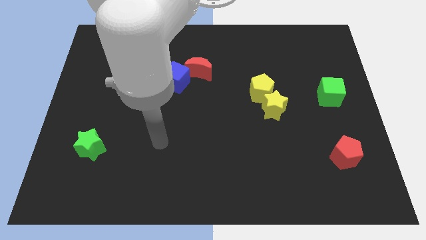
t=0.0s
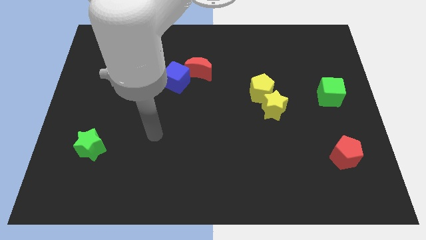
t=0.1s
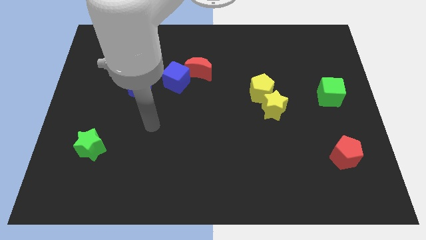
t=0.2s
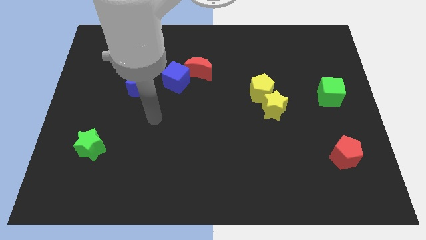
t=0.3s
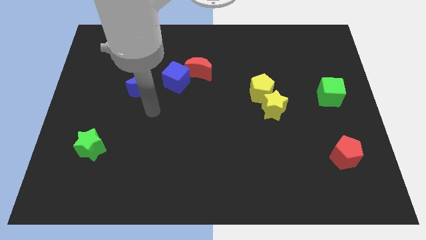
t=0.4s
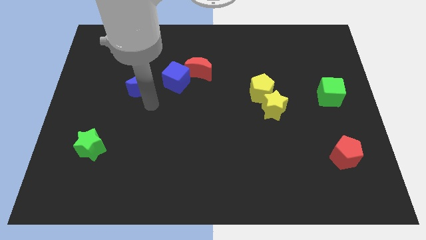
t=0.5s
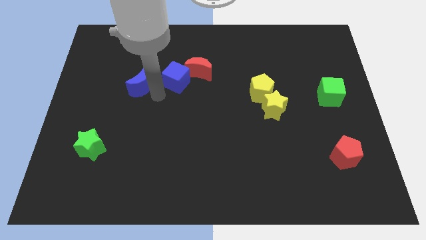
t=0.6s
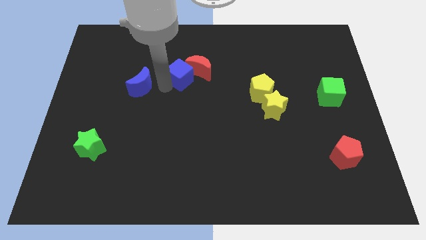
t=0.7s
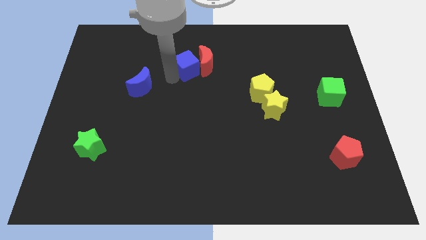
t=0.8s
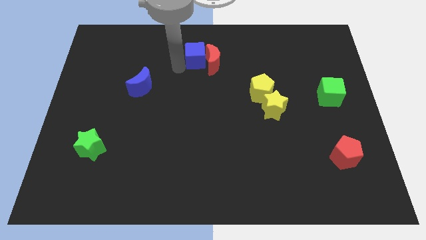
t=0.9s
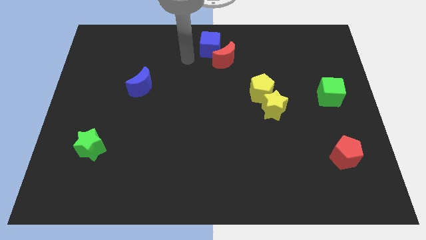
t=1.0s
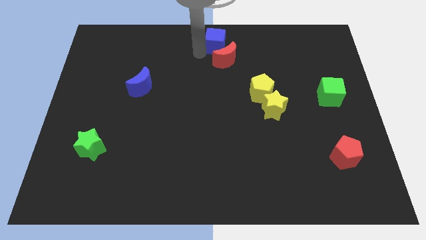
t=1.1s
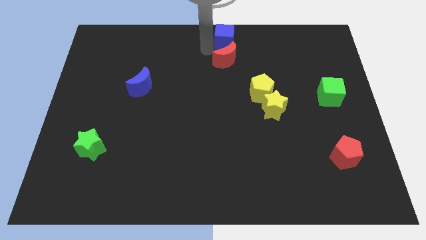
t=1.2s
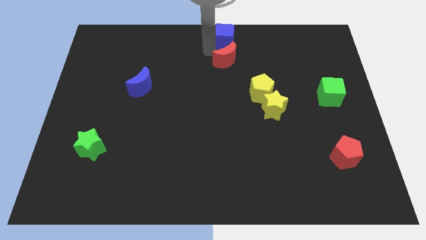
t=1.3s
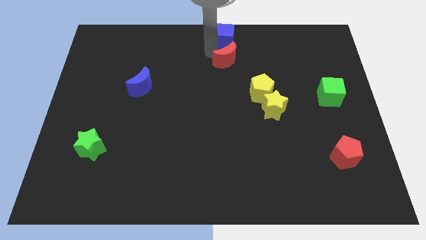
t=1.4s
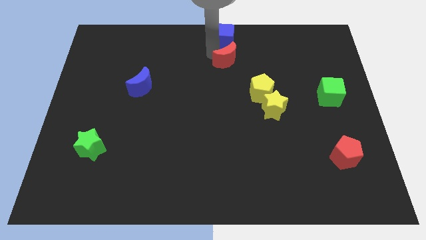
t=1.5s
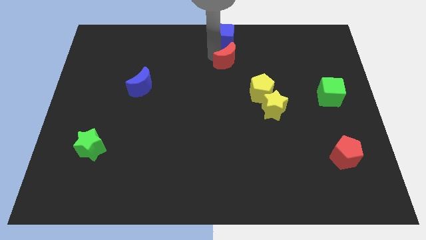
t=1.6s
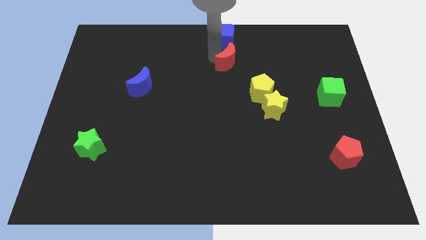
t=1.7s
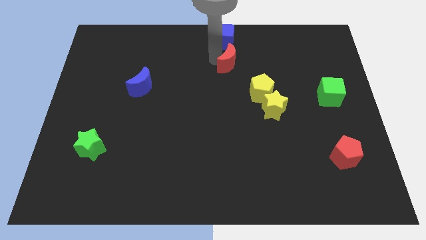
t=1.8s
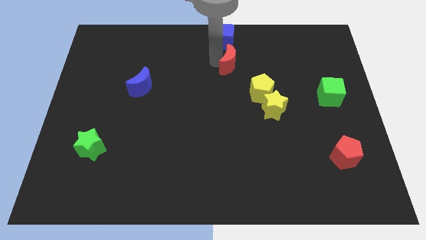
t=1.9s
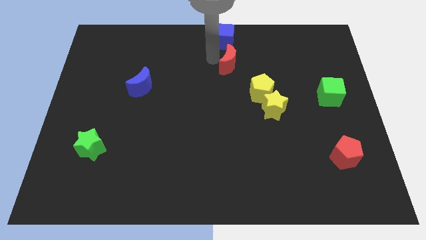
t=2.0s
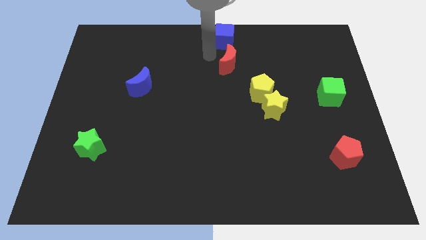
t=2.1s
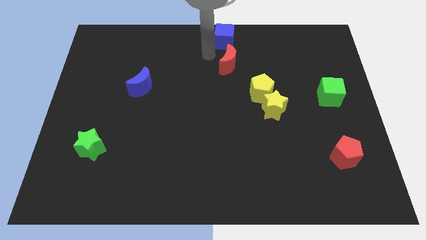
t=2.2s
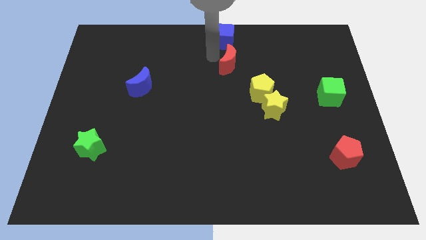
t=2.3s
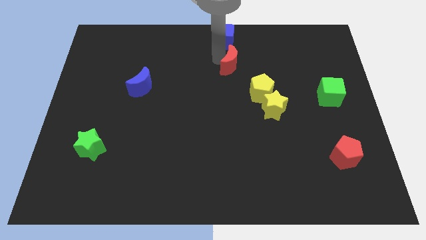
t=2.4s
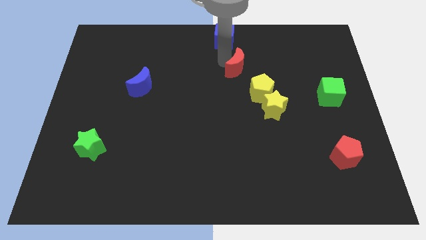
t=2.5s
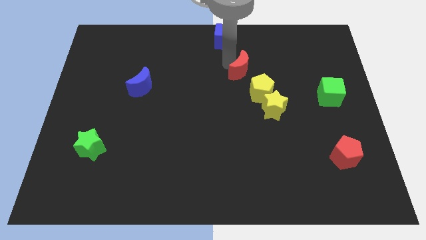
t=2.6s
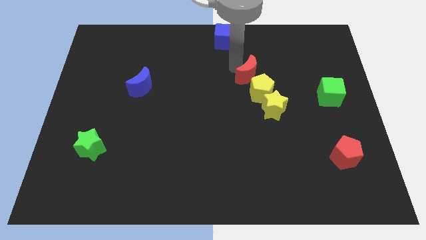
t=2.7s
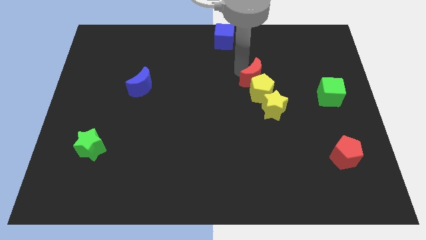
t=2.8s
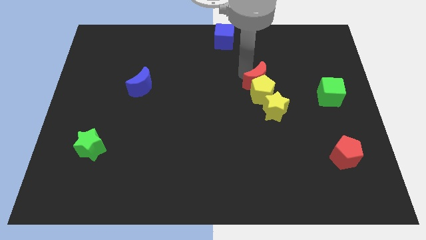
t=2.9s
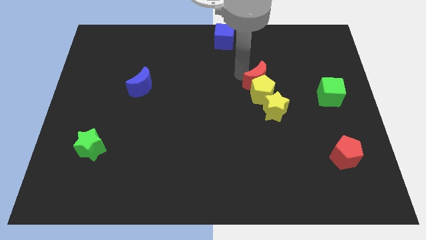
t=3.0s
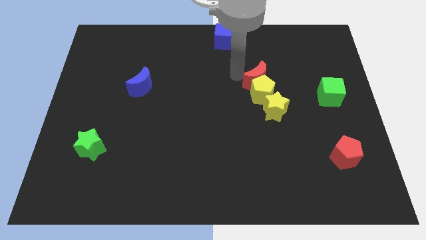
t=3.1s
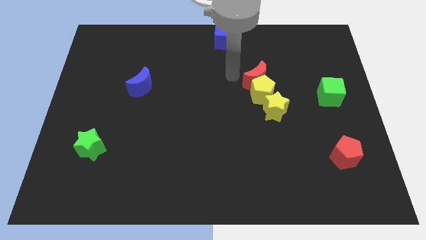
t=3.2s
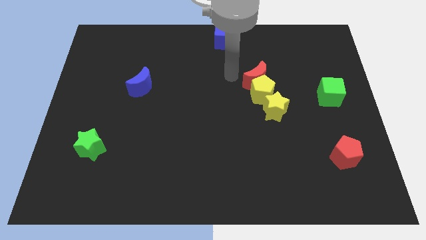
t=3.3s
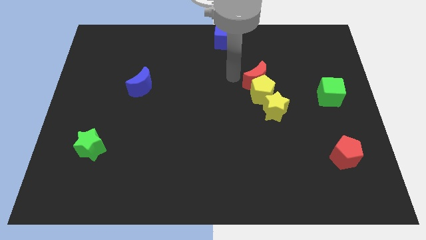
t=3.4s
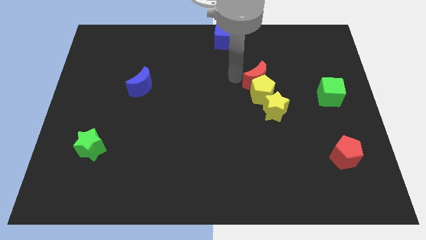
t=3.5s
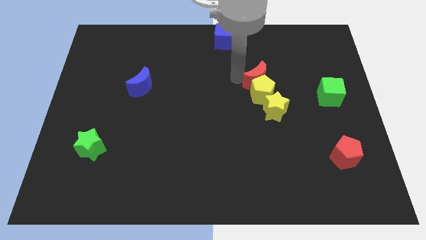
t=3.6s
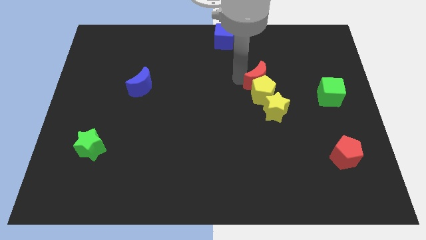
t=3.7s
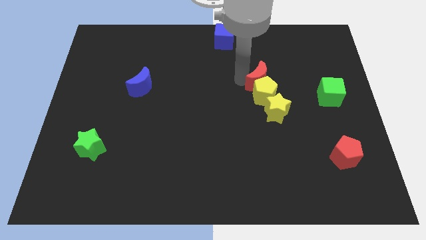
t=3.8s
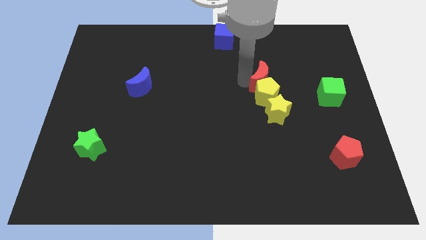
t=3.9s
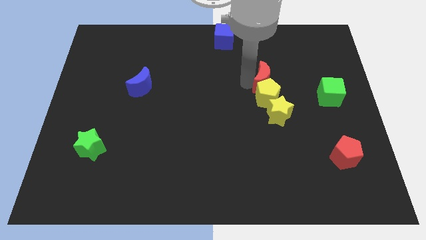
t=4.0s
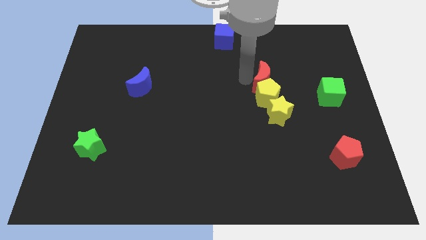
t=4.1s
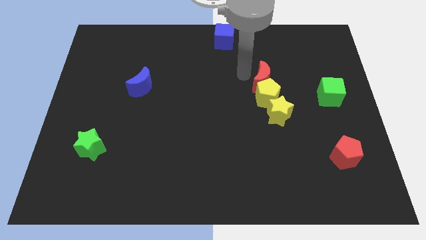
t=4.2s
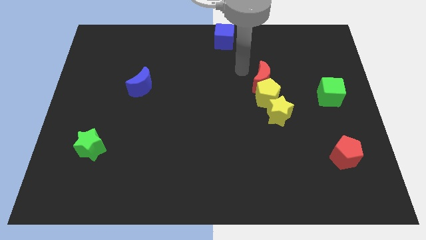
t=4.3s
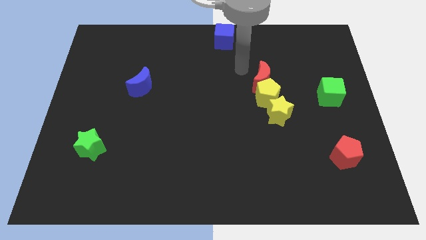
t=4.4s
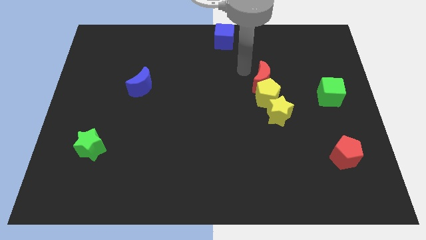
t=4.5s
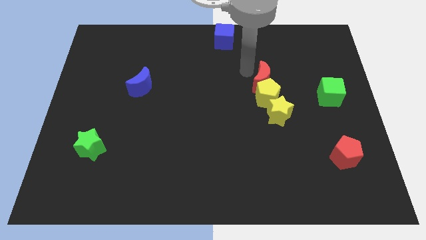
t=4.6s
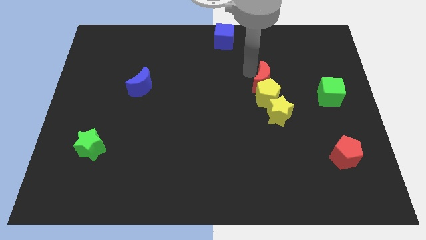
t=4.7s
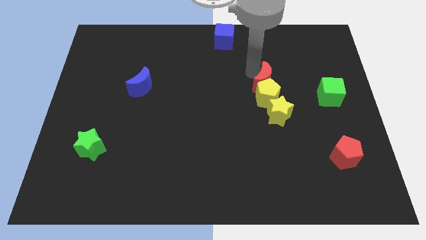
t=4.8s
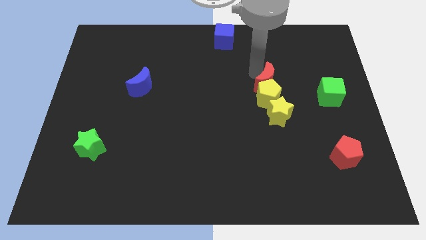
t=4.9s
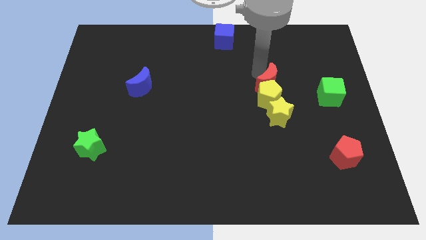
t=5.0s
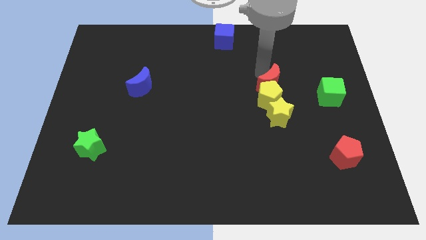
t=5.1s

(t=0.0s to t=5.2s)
push the red moon to the left side of the green cube

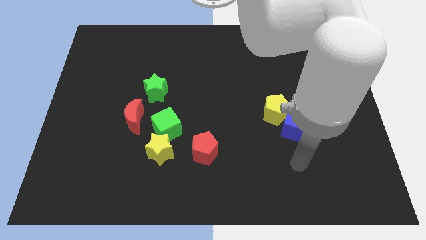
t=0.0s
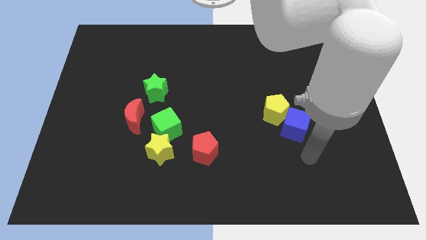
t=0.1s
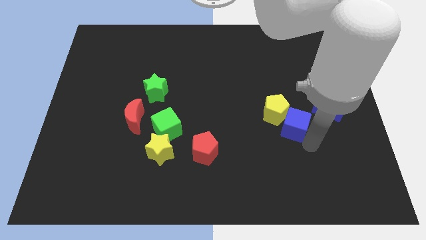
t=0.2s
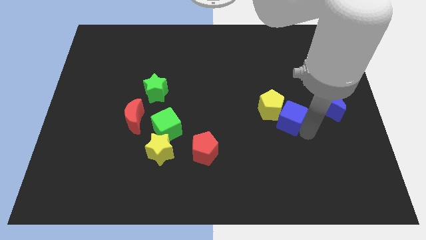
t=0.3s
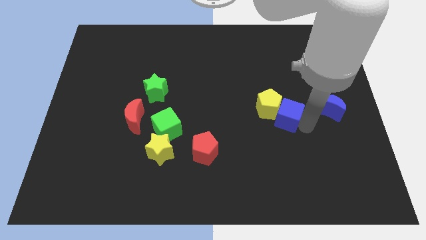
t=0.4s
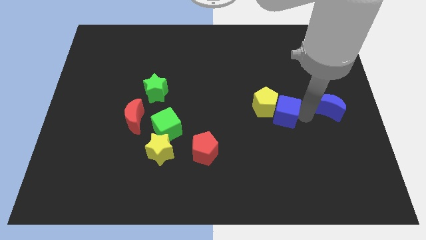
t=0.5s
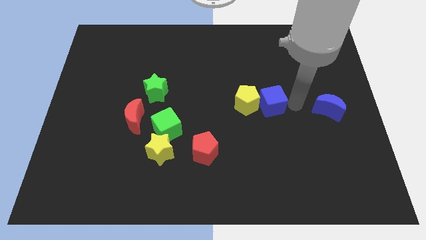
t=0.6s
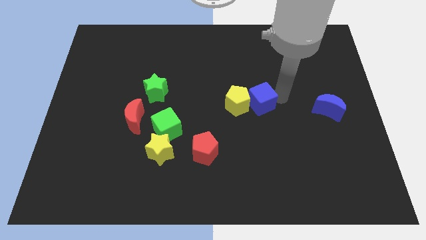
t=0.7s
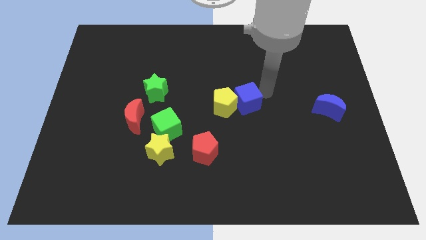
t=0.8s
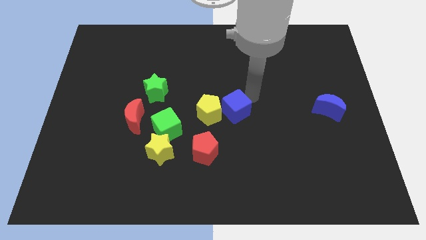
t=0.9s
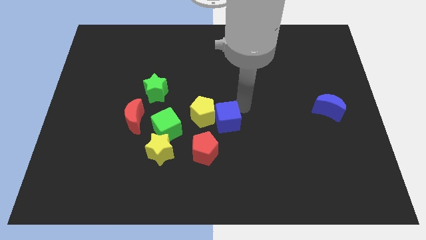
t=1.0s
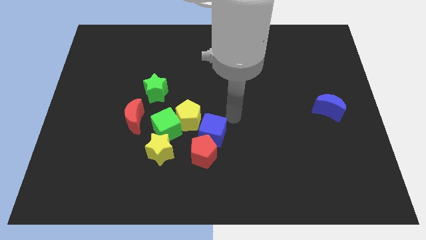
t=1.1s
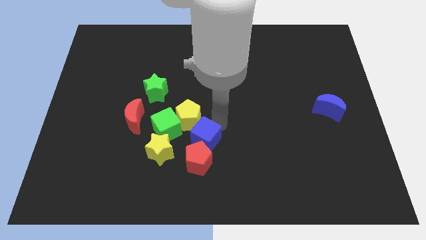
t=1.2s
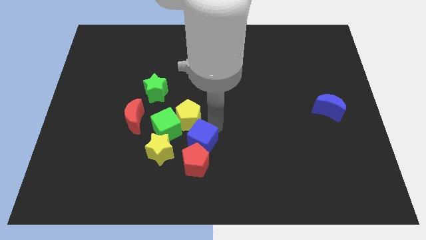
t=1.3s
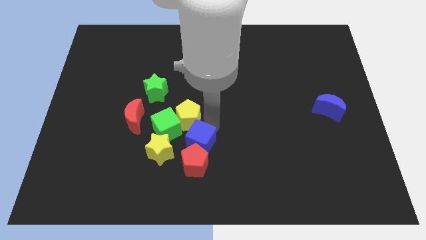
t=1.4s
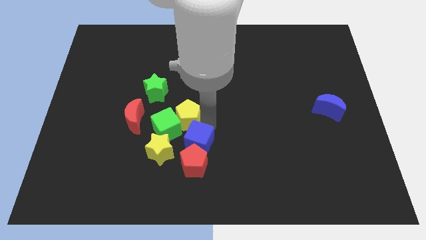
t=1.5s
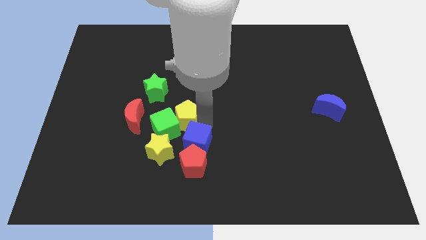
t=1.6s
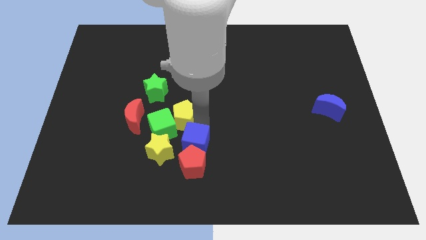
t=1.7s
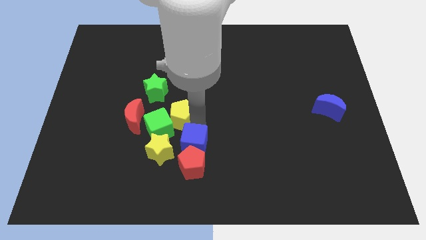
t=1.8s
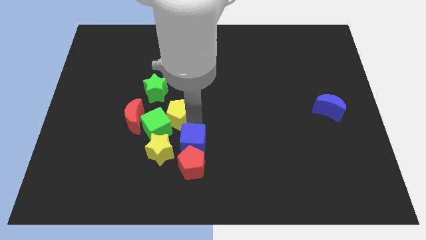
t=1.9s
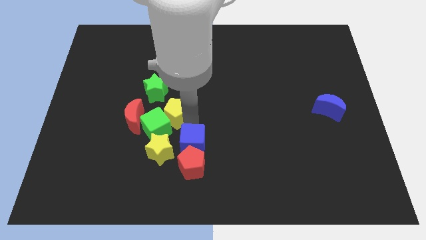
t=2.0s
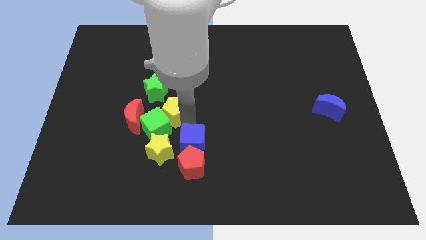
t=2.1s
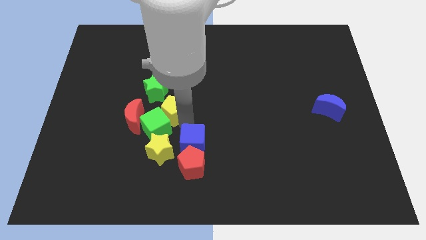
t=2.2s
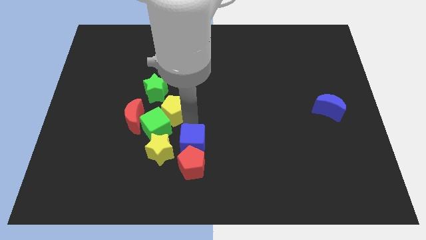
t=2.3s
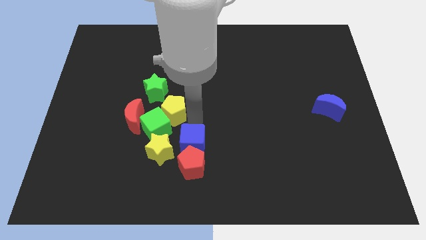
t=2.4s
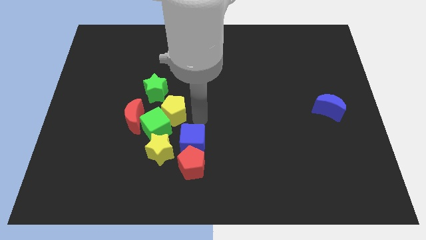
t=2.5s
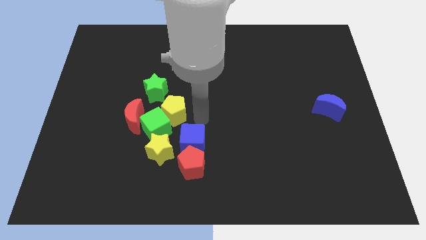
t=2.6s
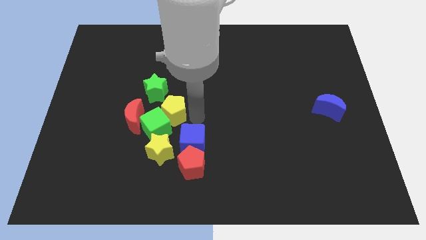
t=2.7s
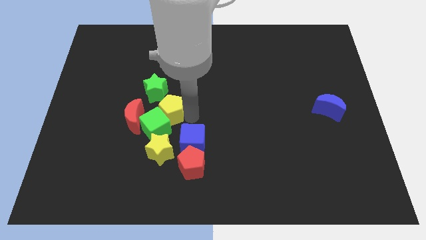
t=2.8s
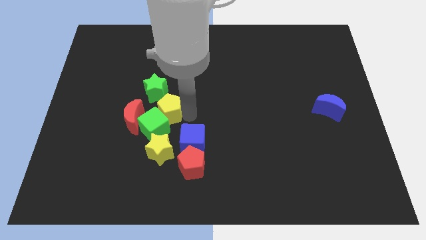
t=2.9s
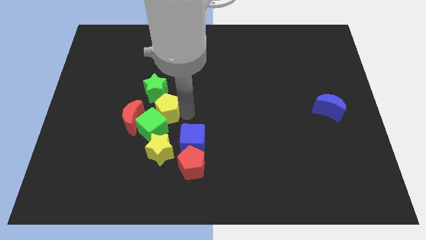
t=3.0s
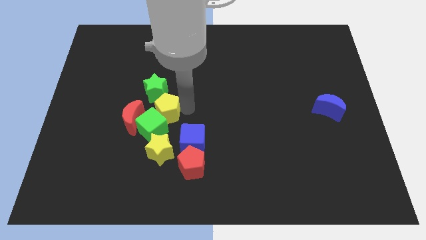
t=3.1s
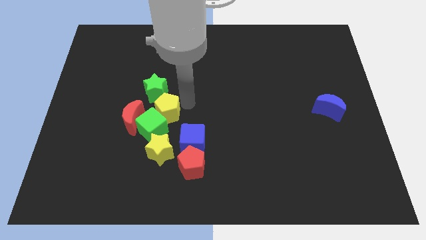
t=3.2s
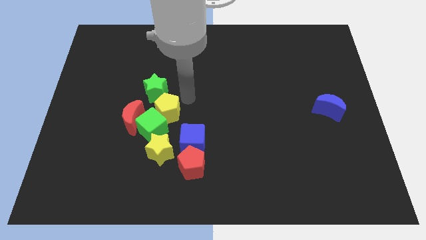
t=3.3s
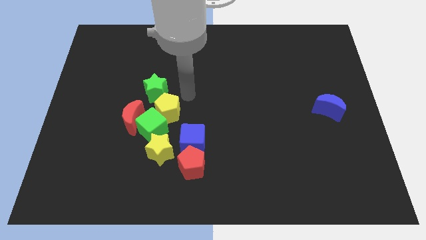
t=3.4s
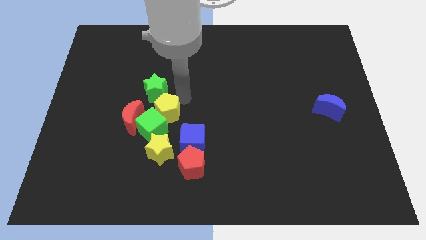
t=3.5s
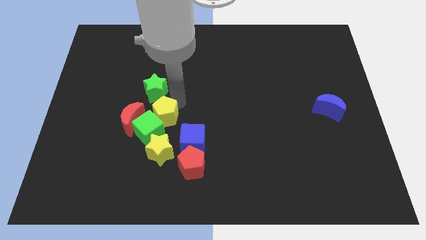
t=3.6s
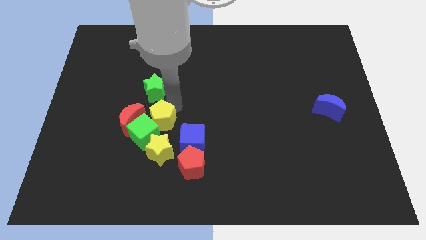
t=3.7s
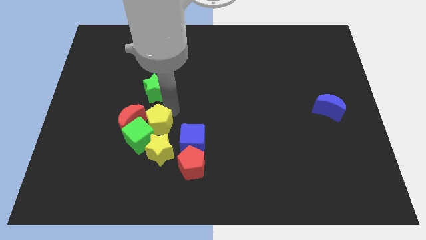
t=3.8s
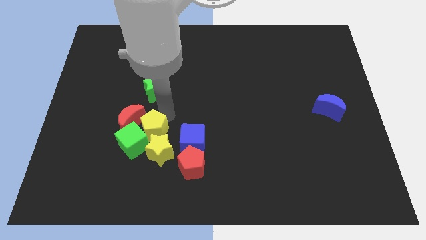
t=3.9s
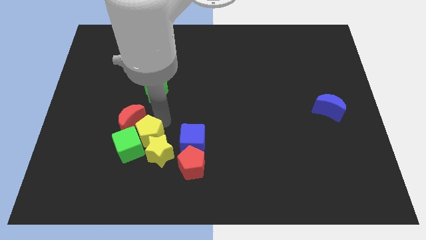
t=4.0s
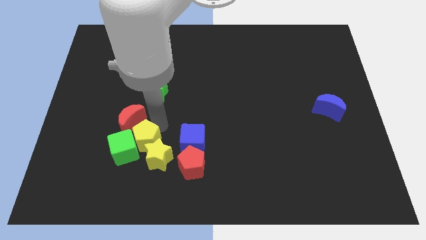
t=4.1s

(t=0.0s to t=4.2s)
push the yellow pentagon to the left of the yellow star
